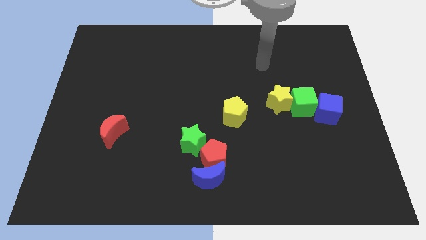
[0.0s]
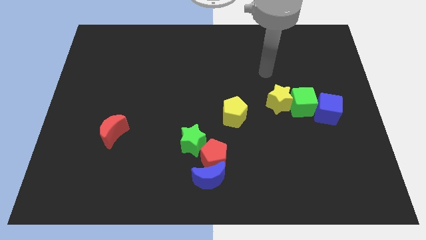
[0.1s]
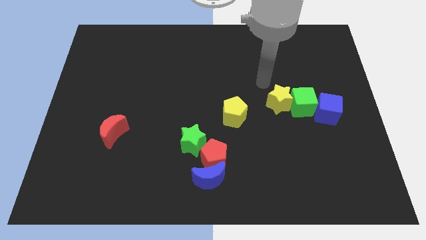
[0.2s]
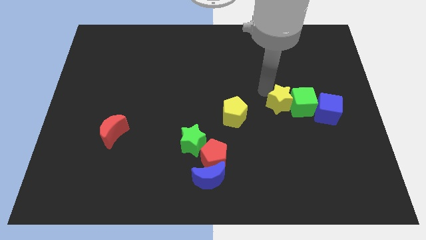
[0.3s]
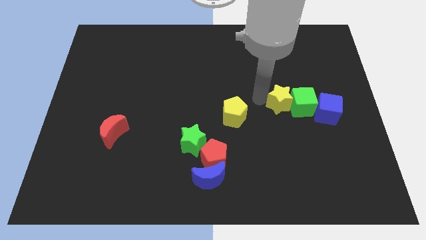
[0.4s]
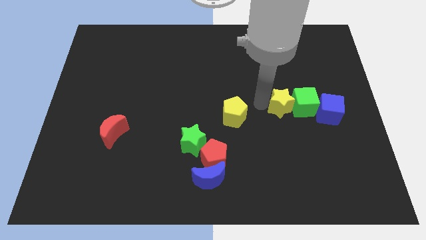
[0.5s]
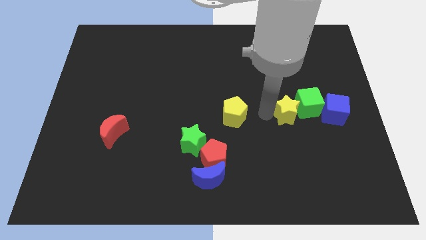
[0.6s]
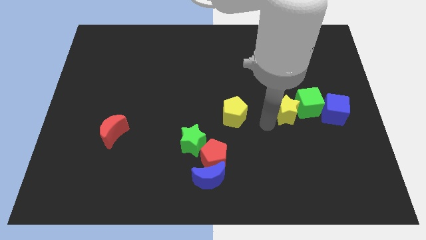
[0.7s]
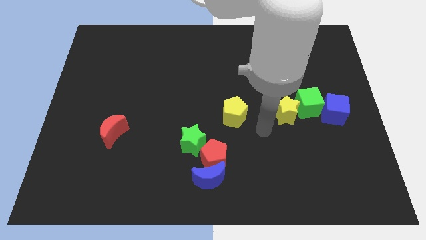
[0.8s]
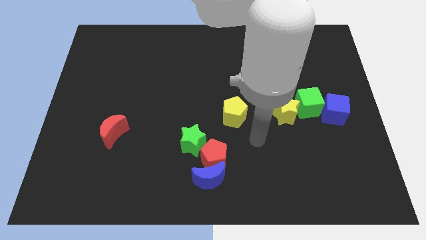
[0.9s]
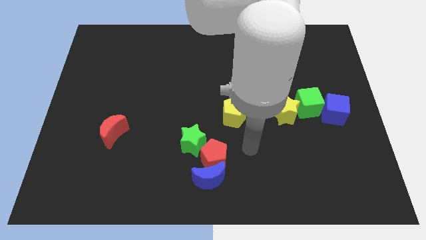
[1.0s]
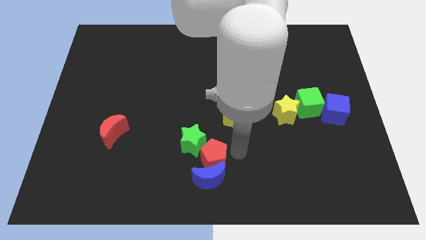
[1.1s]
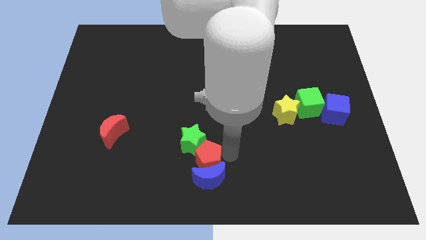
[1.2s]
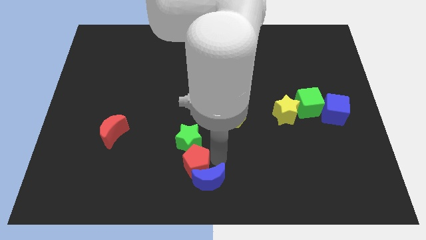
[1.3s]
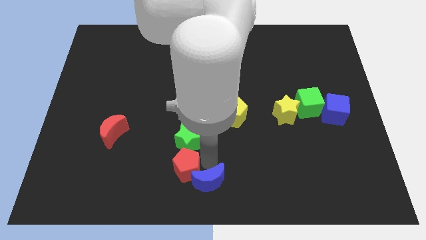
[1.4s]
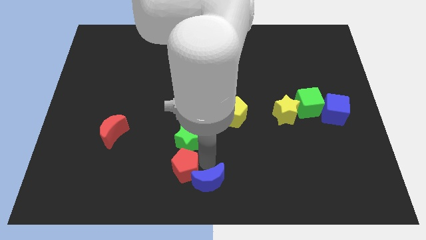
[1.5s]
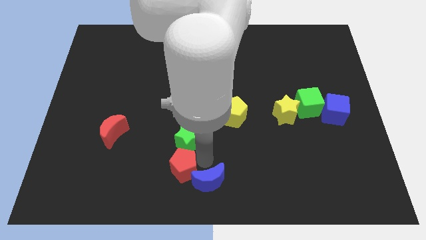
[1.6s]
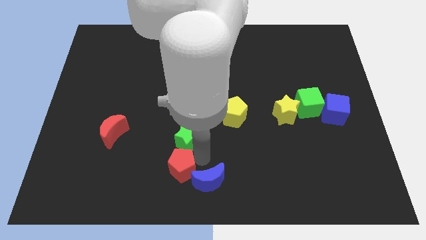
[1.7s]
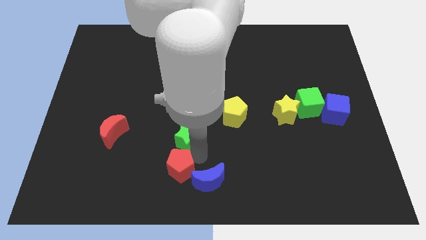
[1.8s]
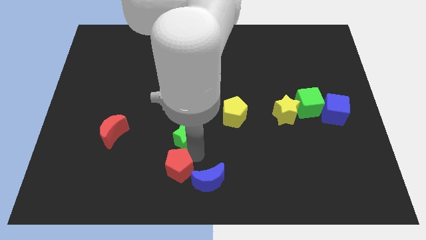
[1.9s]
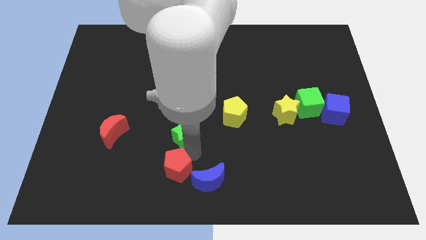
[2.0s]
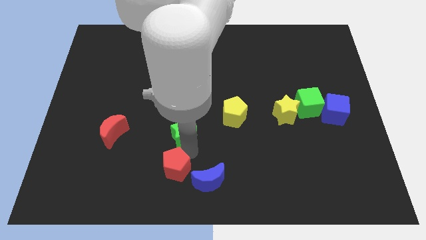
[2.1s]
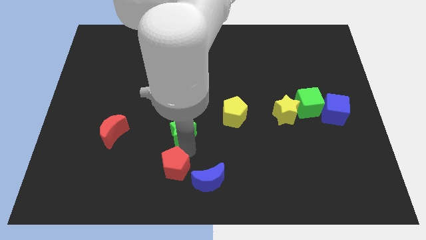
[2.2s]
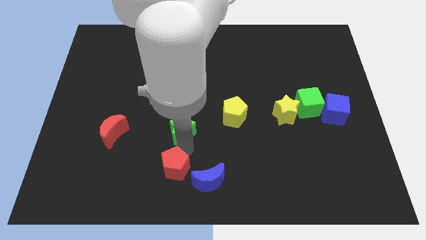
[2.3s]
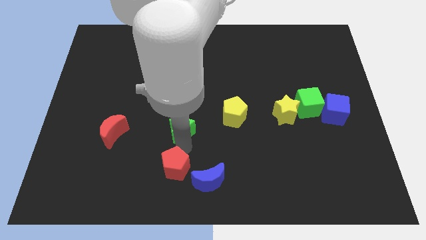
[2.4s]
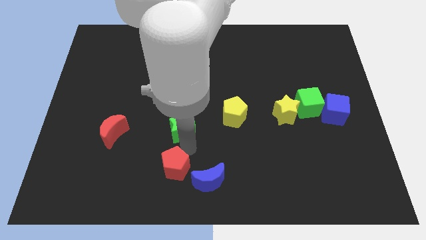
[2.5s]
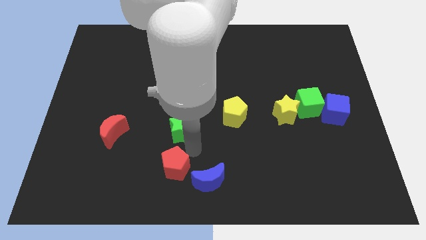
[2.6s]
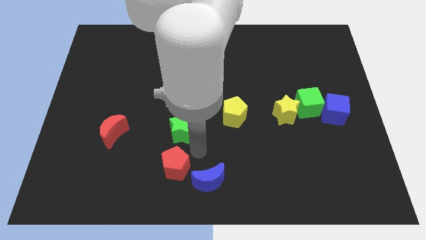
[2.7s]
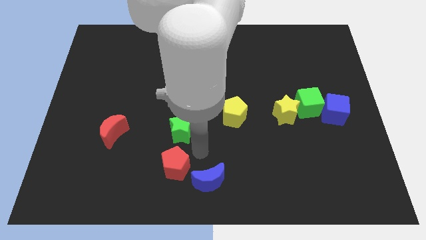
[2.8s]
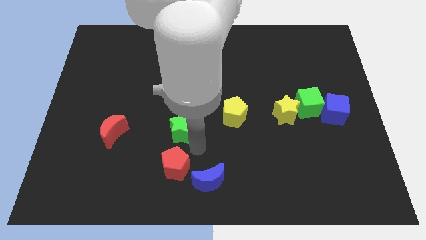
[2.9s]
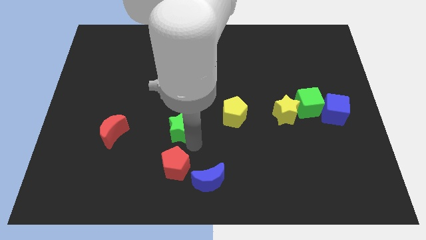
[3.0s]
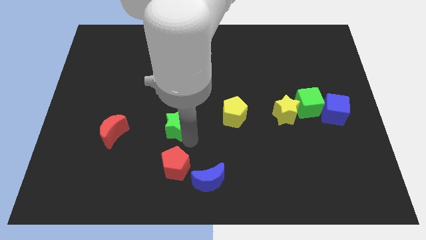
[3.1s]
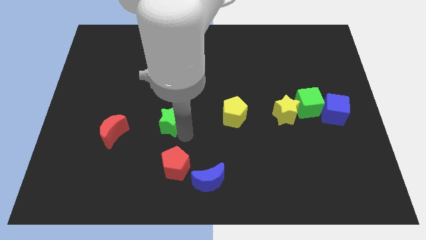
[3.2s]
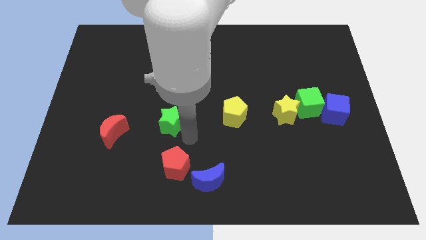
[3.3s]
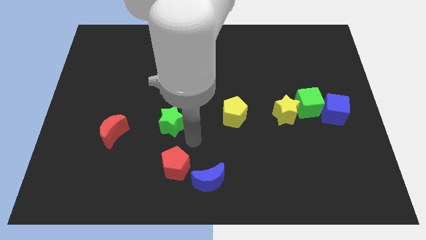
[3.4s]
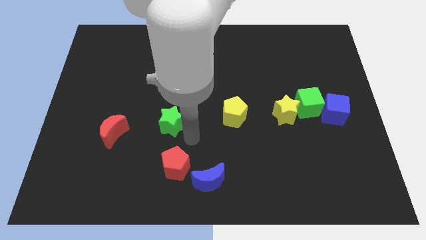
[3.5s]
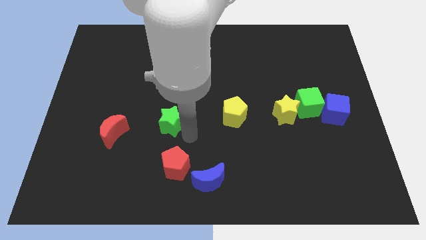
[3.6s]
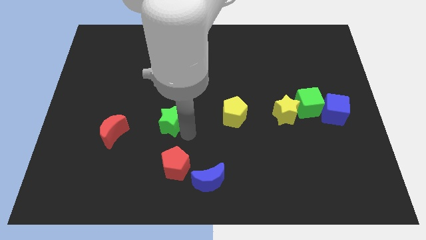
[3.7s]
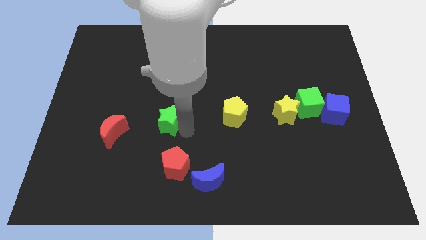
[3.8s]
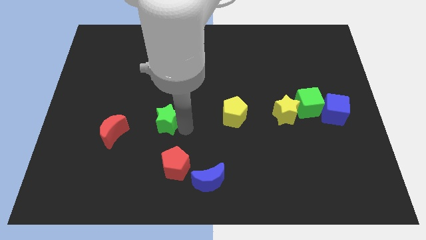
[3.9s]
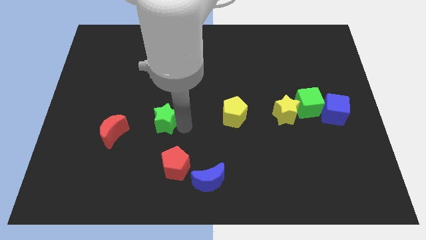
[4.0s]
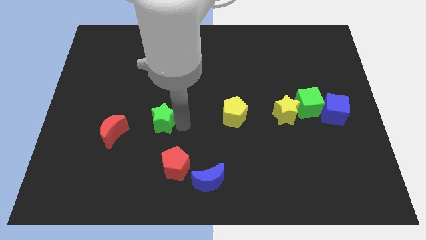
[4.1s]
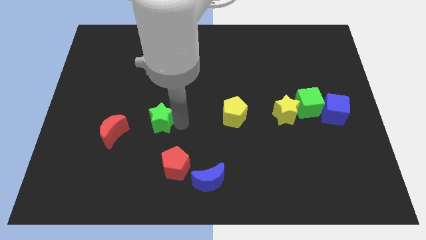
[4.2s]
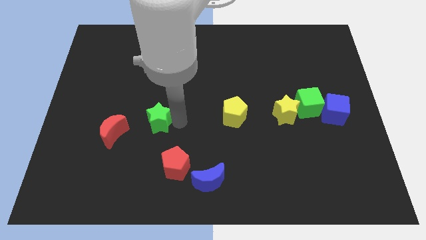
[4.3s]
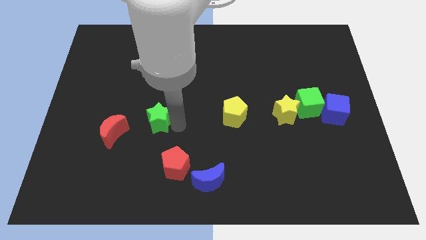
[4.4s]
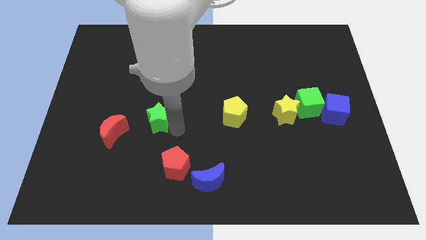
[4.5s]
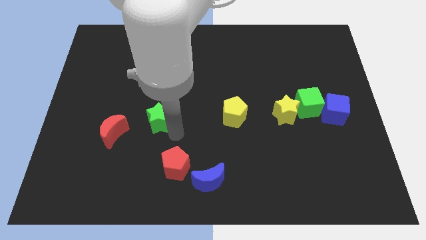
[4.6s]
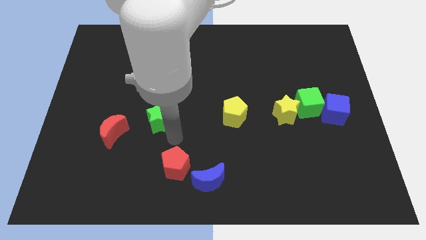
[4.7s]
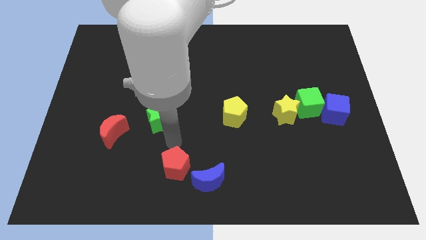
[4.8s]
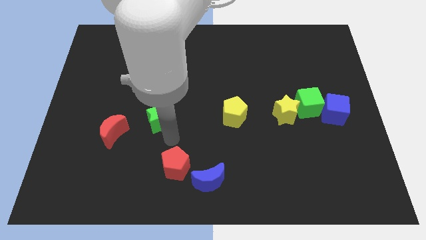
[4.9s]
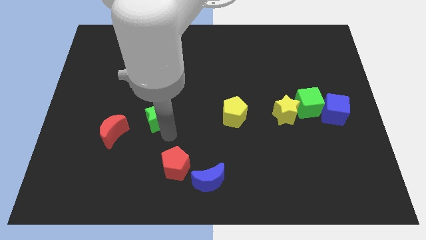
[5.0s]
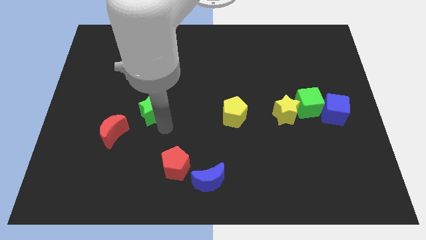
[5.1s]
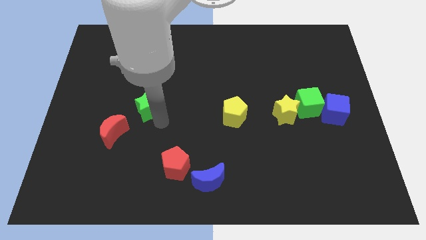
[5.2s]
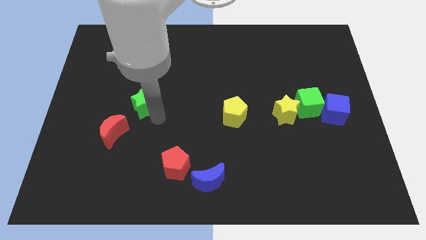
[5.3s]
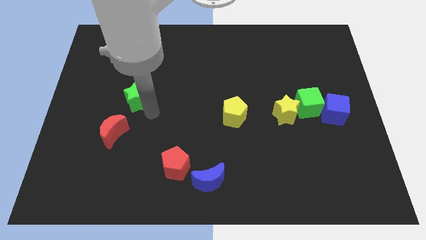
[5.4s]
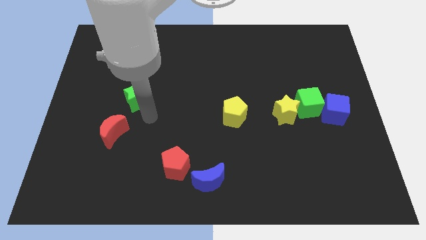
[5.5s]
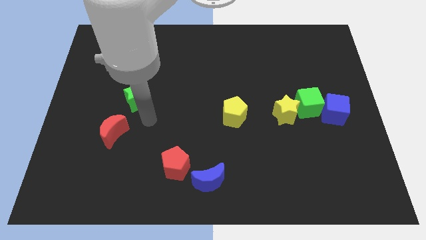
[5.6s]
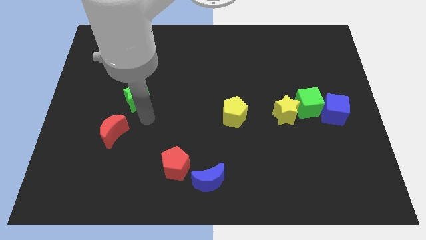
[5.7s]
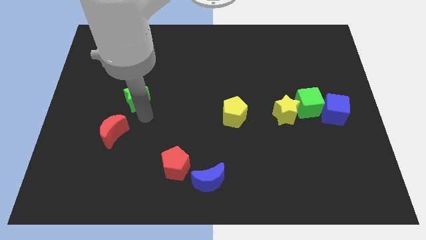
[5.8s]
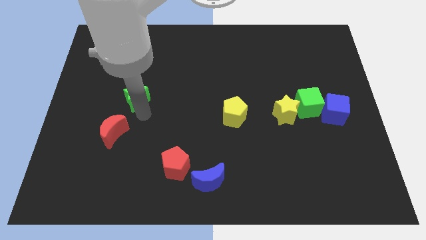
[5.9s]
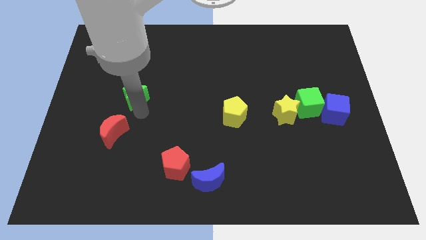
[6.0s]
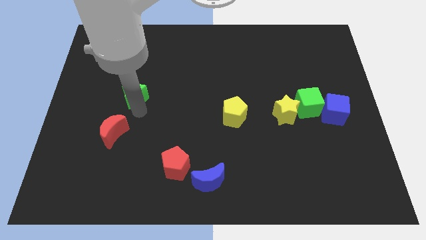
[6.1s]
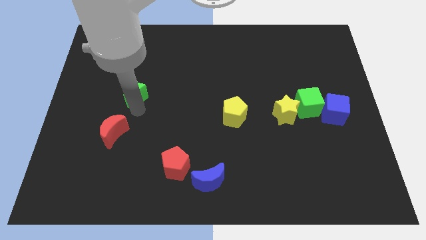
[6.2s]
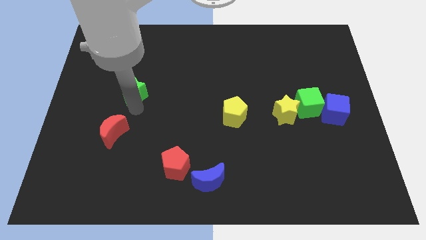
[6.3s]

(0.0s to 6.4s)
push the green star diagonally upwards and left

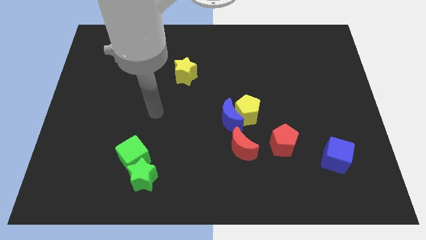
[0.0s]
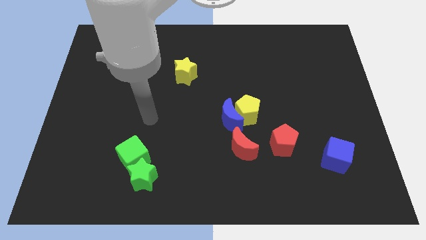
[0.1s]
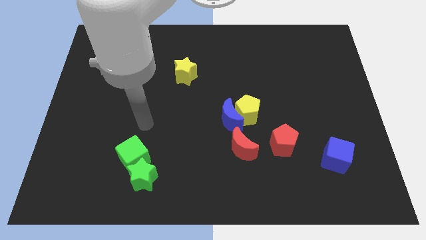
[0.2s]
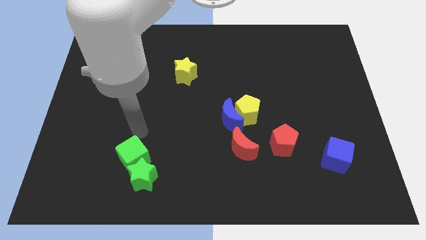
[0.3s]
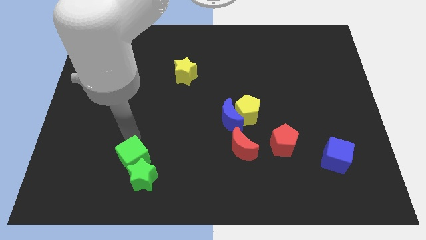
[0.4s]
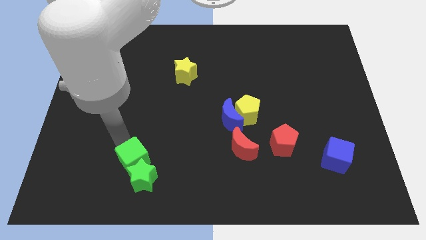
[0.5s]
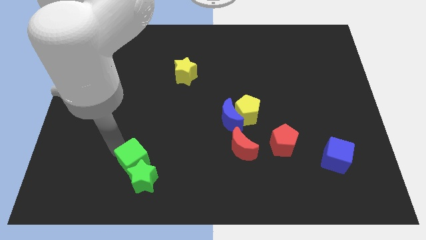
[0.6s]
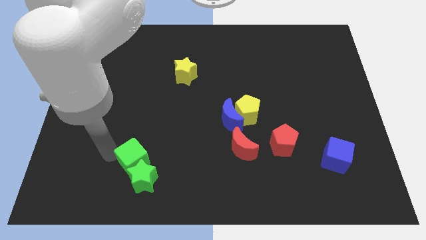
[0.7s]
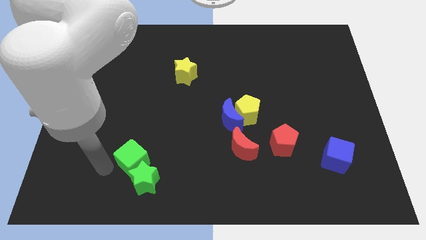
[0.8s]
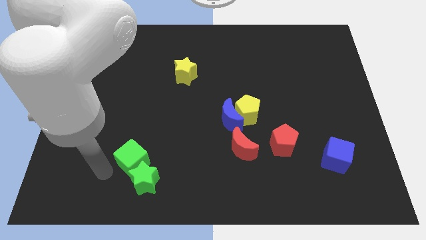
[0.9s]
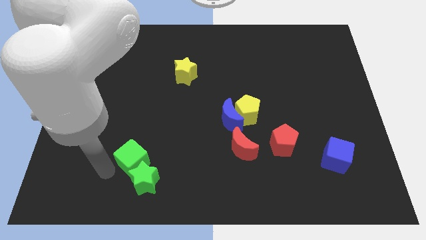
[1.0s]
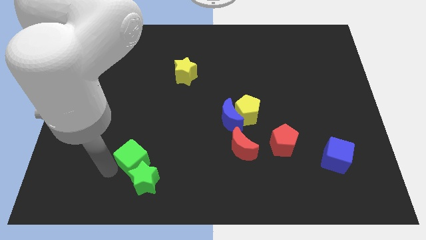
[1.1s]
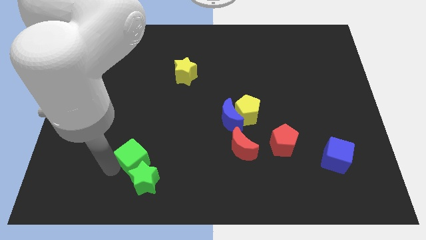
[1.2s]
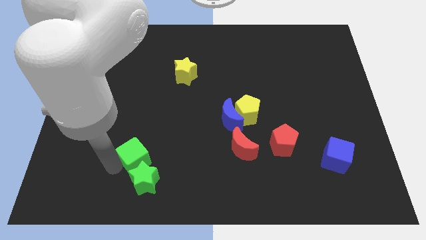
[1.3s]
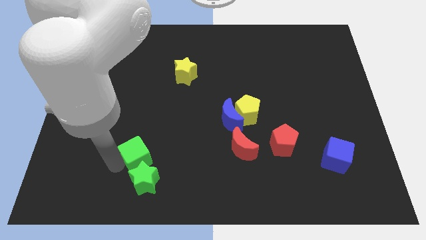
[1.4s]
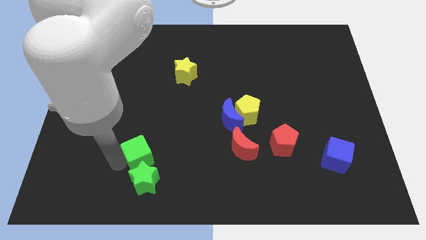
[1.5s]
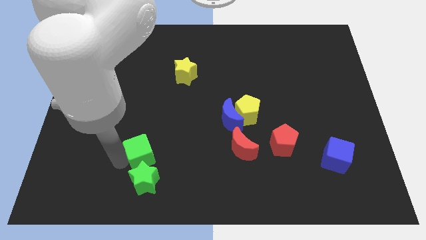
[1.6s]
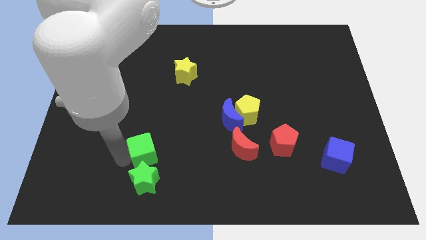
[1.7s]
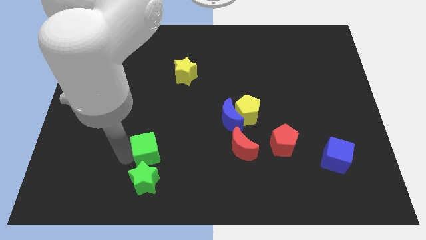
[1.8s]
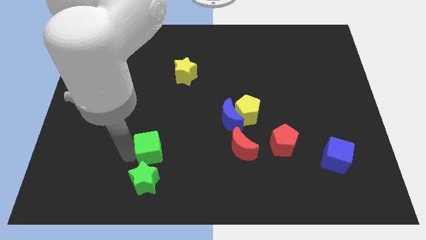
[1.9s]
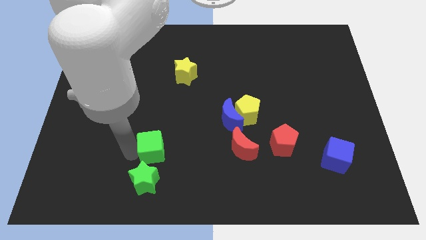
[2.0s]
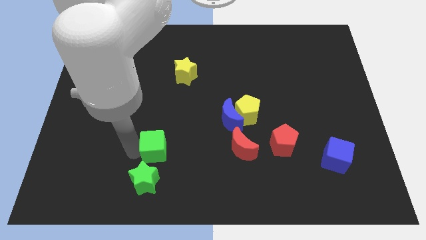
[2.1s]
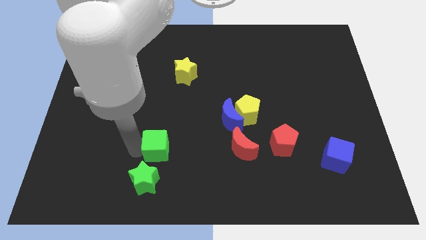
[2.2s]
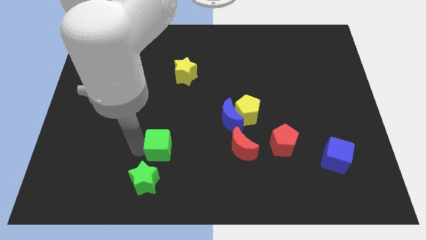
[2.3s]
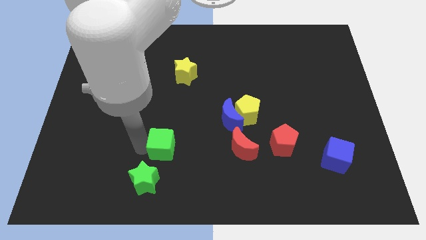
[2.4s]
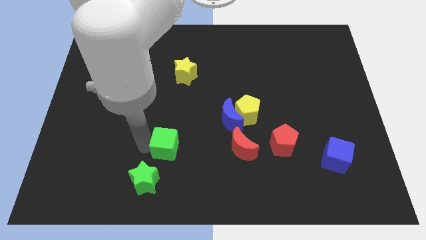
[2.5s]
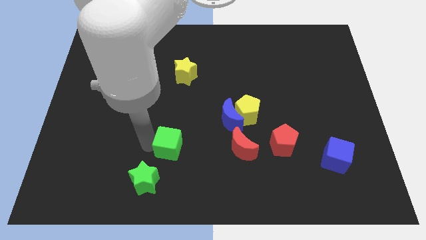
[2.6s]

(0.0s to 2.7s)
push the green cube to the right somewhat
